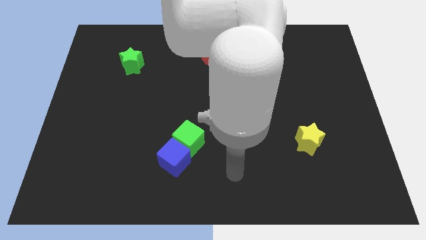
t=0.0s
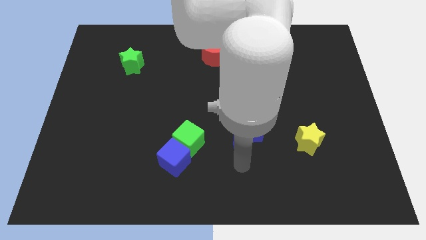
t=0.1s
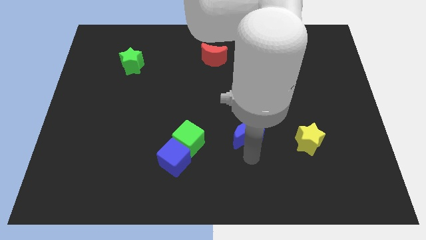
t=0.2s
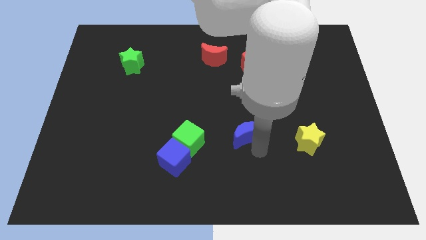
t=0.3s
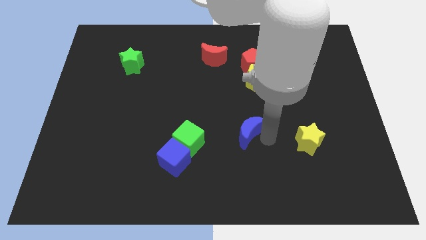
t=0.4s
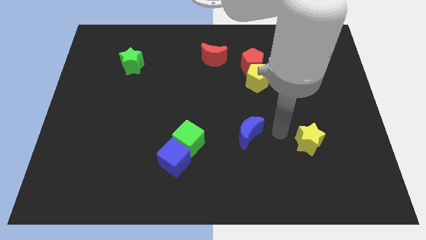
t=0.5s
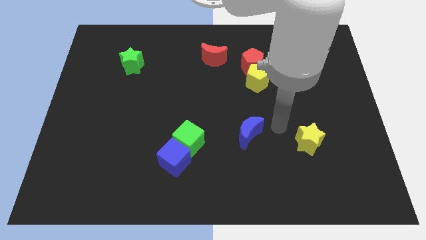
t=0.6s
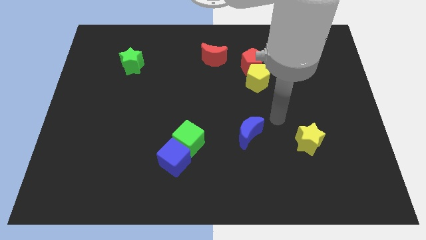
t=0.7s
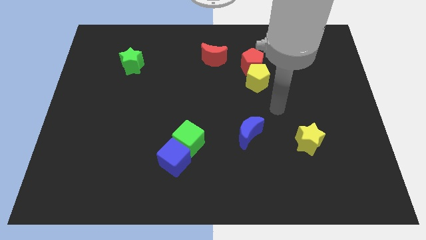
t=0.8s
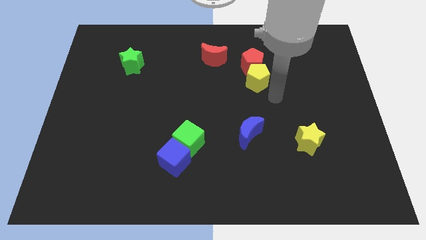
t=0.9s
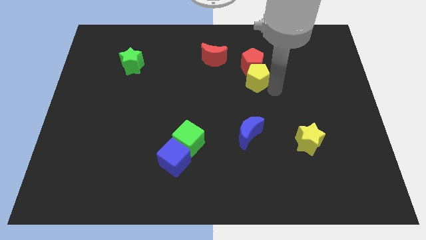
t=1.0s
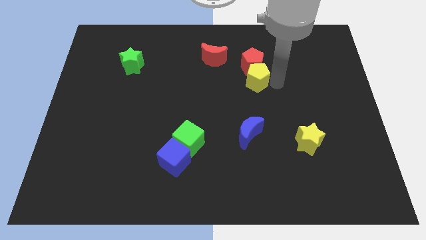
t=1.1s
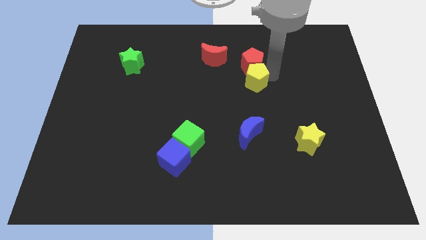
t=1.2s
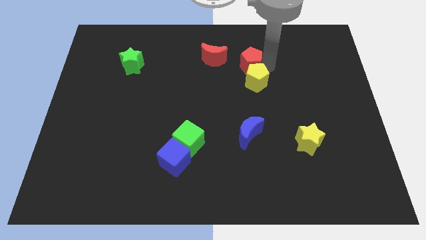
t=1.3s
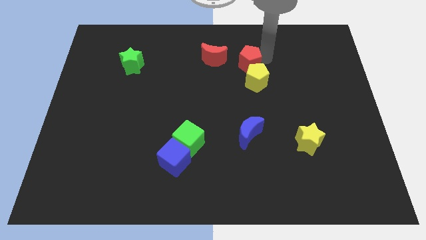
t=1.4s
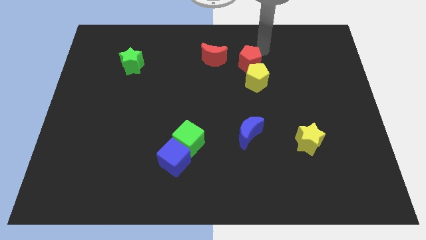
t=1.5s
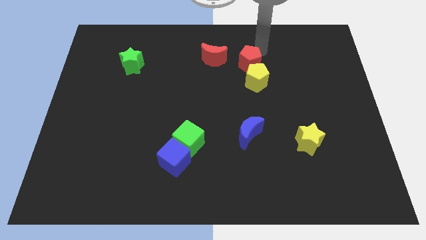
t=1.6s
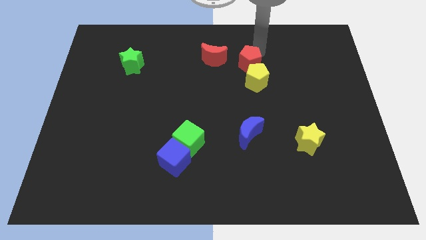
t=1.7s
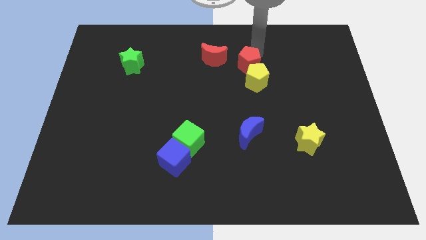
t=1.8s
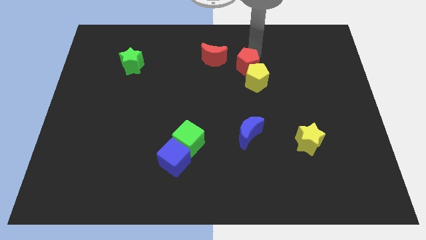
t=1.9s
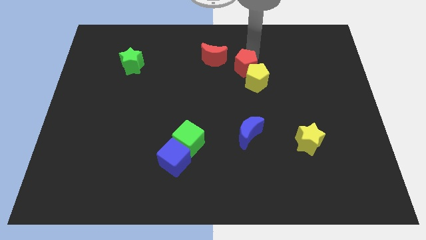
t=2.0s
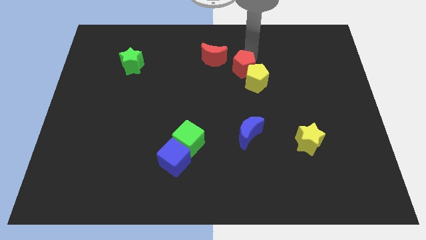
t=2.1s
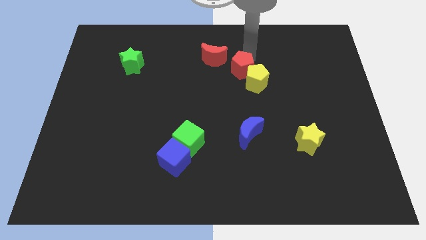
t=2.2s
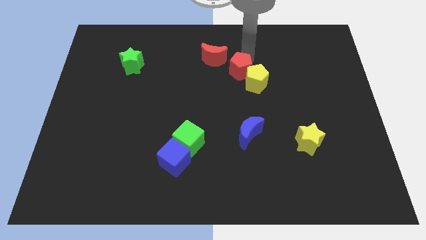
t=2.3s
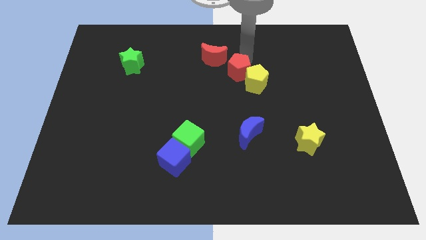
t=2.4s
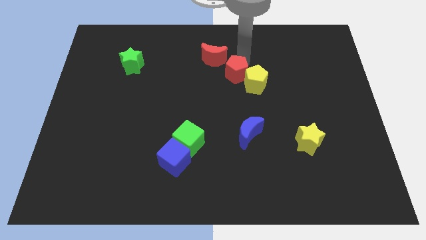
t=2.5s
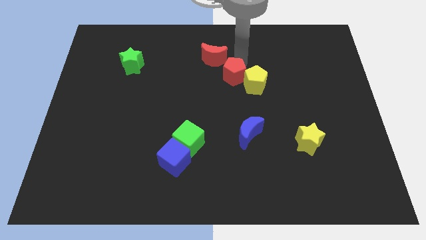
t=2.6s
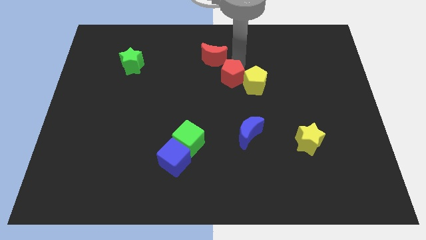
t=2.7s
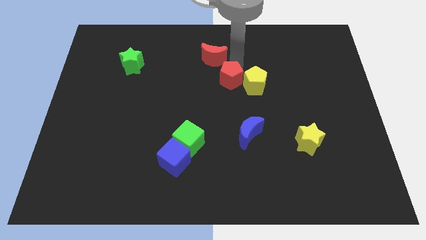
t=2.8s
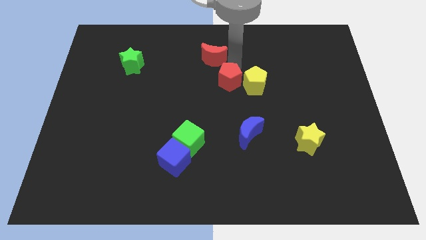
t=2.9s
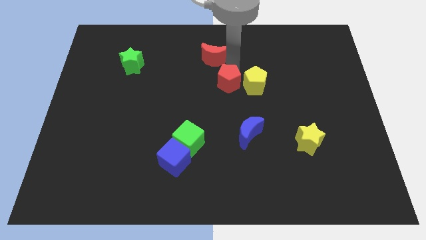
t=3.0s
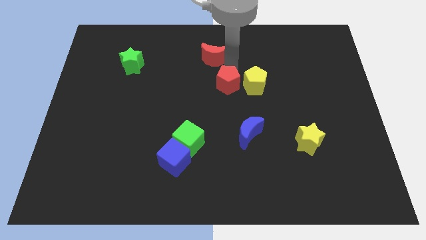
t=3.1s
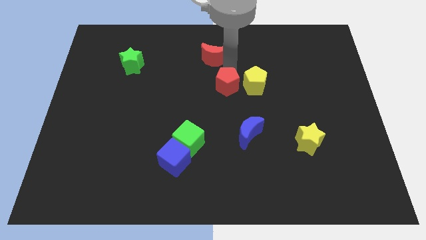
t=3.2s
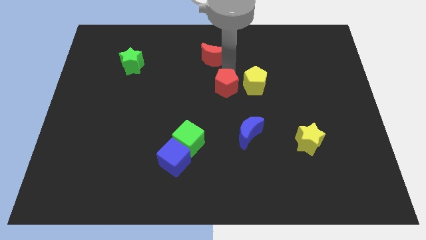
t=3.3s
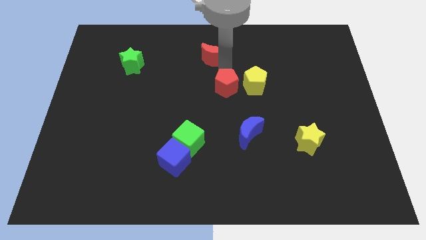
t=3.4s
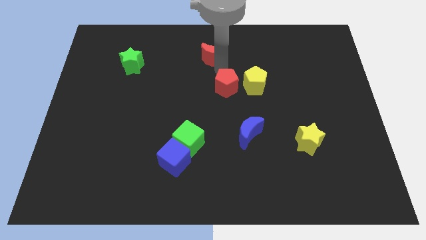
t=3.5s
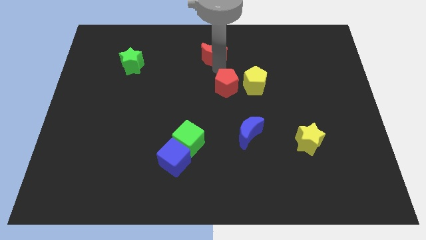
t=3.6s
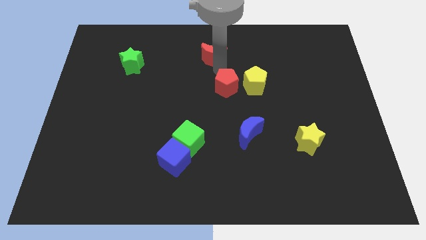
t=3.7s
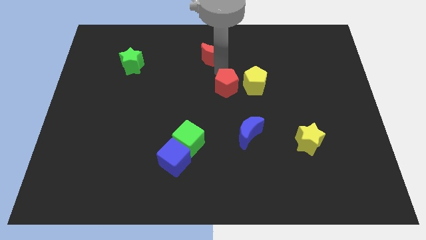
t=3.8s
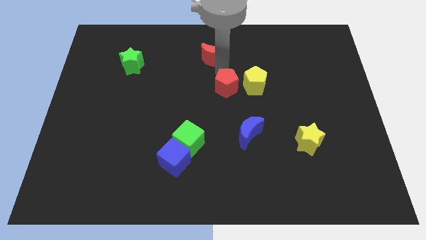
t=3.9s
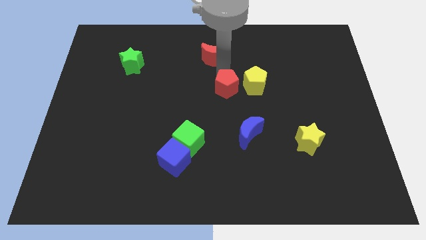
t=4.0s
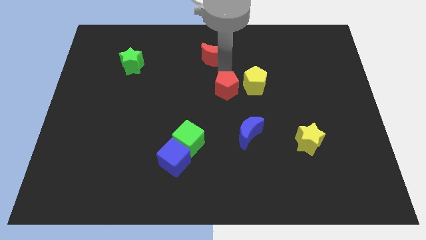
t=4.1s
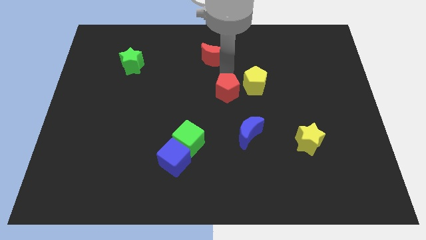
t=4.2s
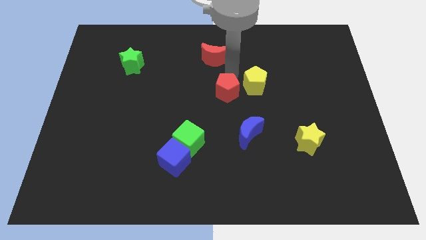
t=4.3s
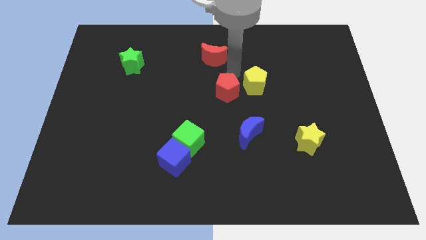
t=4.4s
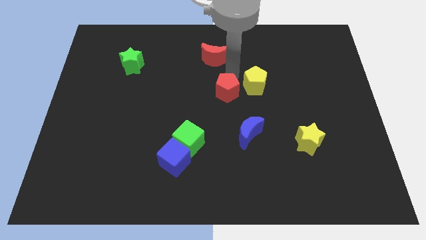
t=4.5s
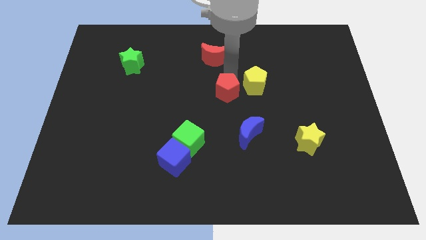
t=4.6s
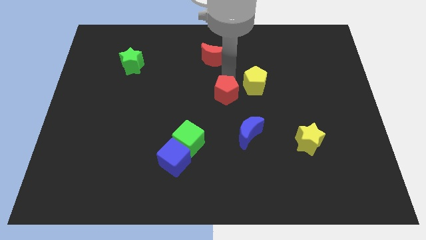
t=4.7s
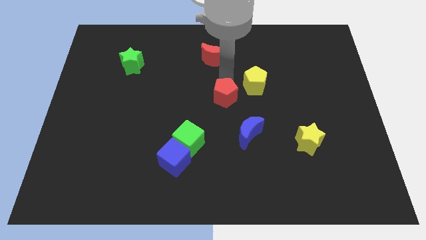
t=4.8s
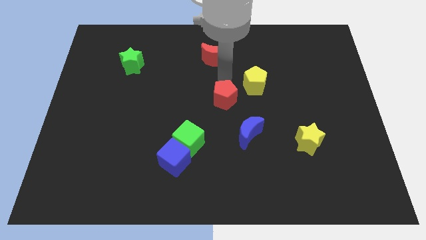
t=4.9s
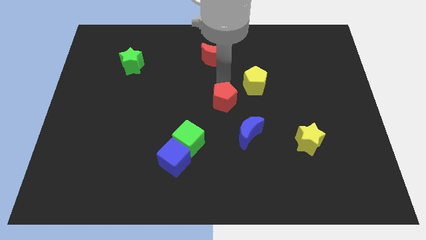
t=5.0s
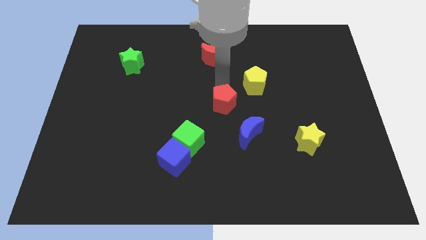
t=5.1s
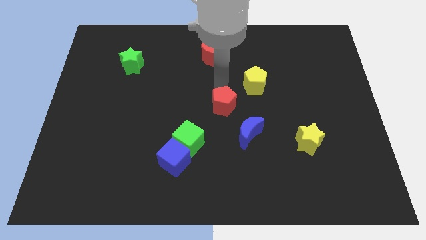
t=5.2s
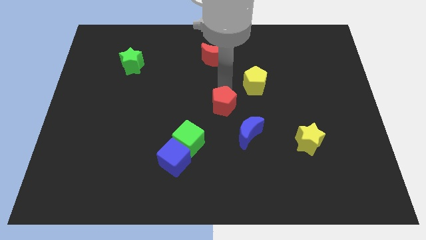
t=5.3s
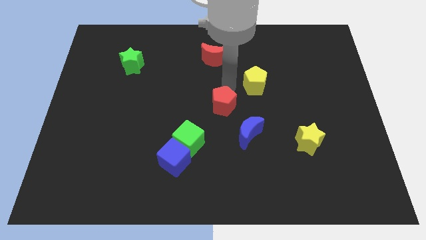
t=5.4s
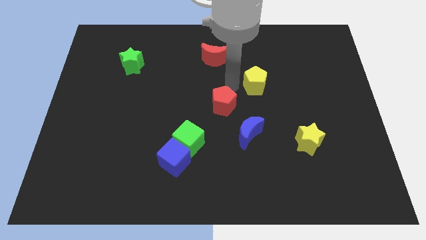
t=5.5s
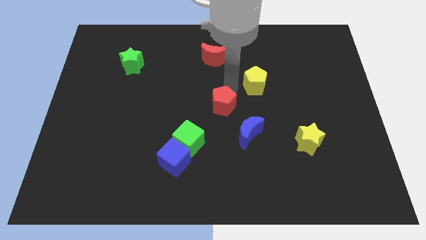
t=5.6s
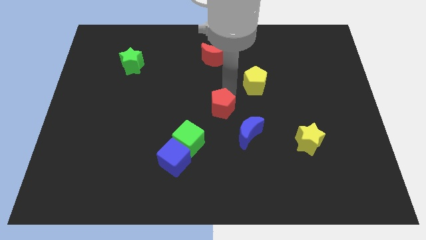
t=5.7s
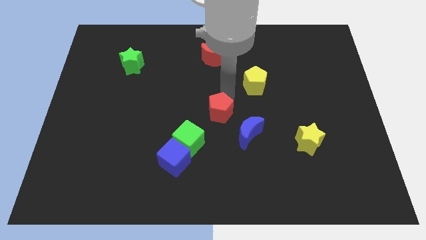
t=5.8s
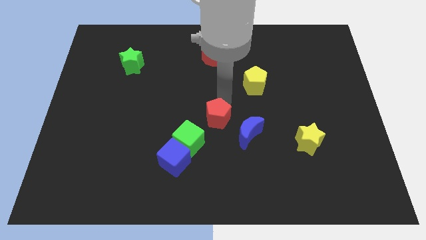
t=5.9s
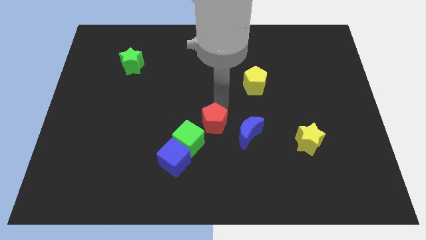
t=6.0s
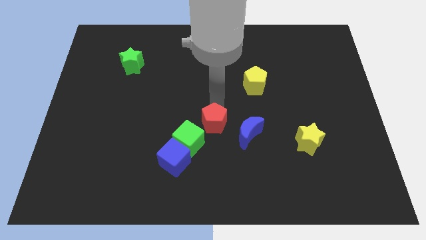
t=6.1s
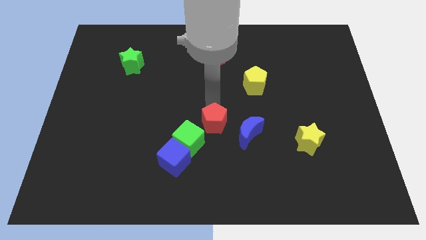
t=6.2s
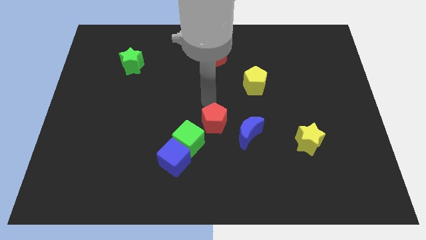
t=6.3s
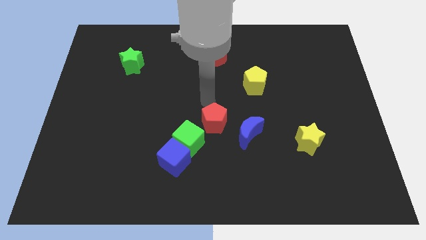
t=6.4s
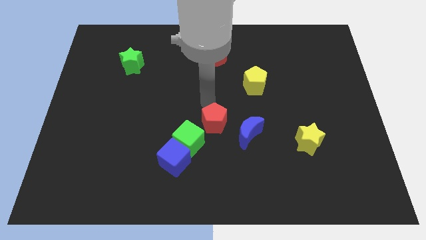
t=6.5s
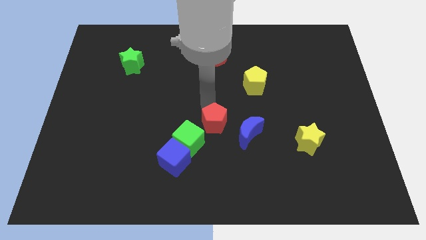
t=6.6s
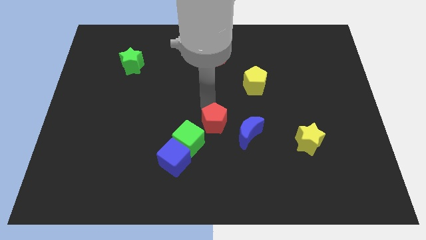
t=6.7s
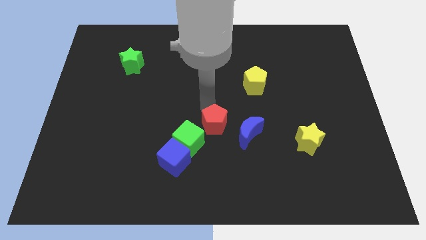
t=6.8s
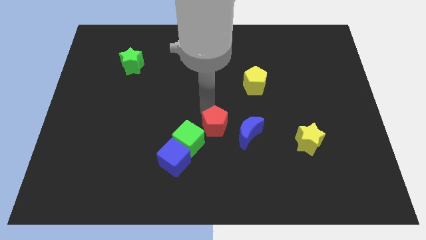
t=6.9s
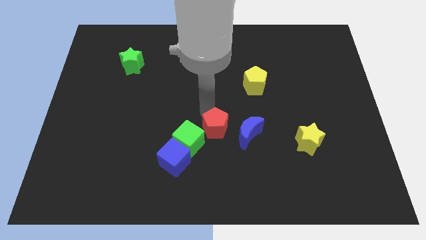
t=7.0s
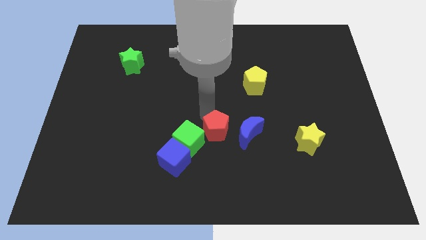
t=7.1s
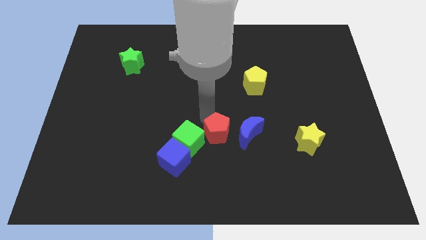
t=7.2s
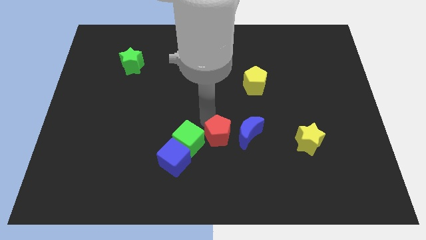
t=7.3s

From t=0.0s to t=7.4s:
put the red pentagon to the bottom left of the blue moon

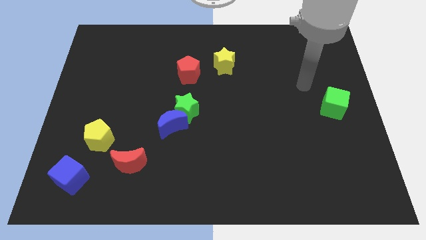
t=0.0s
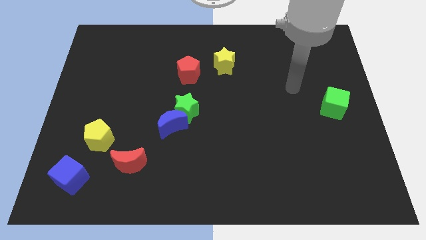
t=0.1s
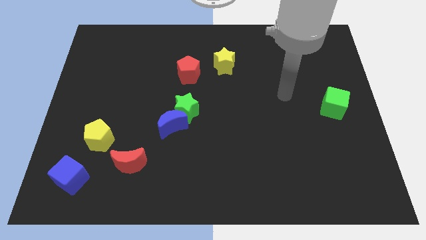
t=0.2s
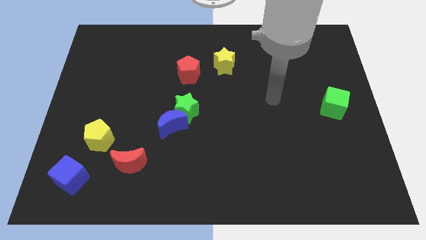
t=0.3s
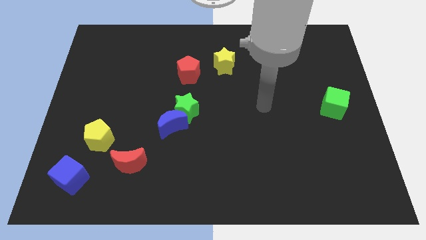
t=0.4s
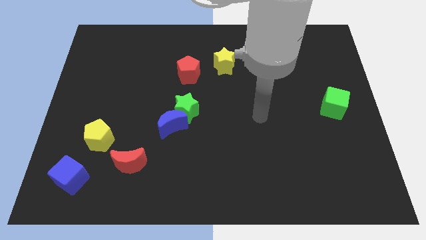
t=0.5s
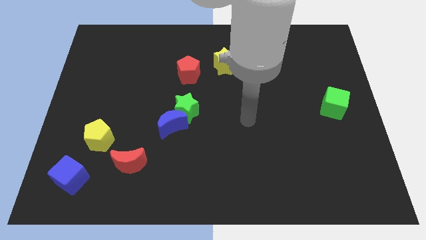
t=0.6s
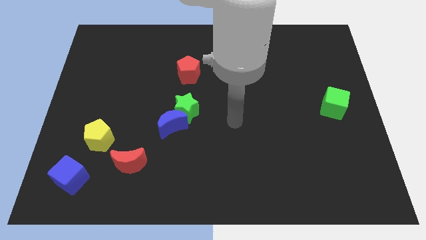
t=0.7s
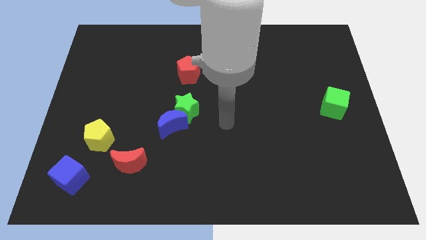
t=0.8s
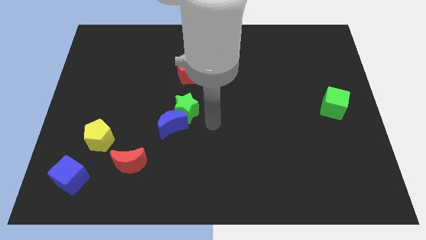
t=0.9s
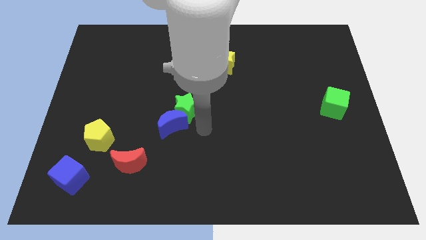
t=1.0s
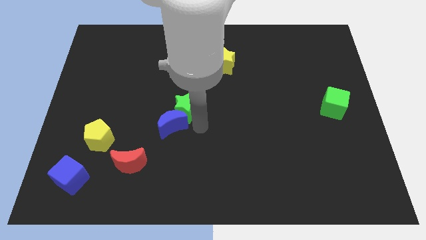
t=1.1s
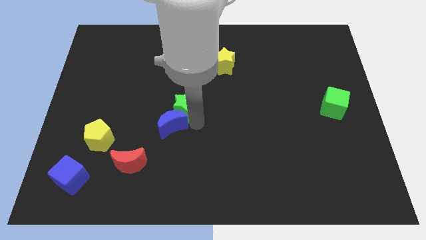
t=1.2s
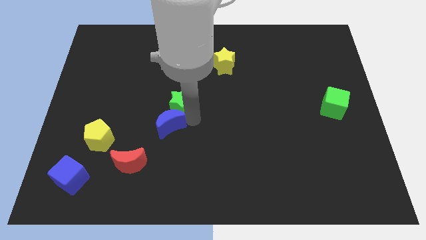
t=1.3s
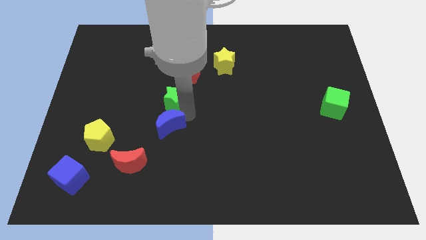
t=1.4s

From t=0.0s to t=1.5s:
put the green star diagonally down and to the left of the red pentagon
